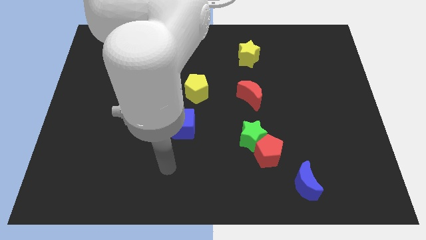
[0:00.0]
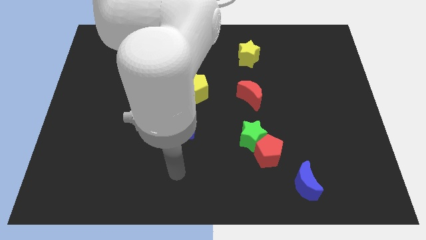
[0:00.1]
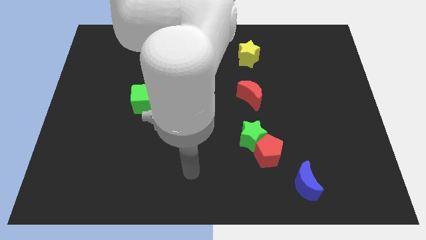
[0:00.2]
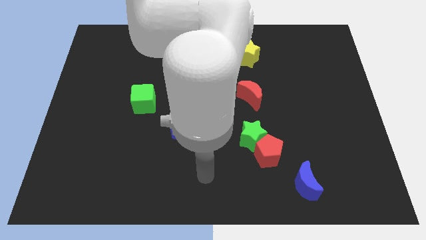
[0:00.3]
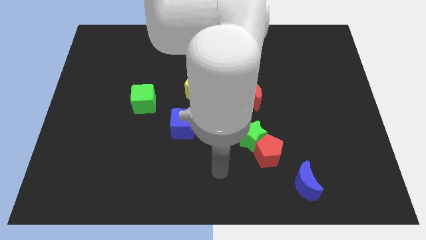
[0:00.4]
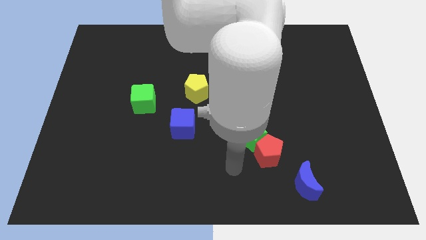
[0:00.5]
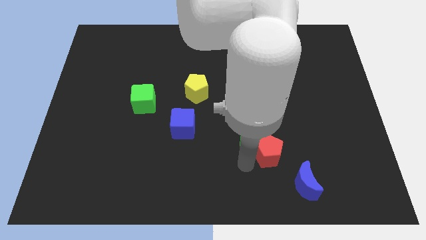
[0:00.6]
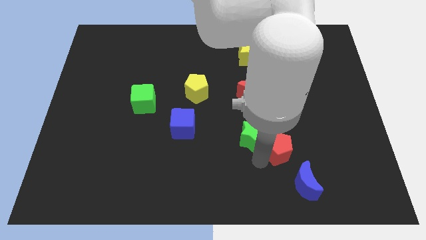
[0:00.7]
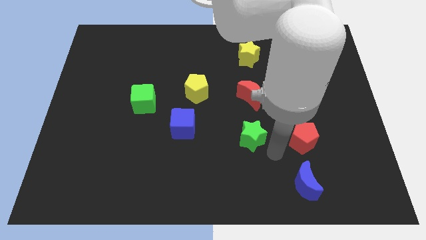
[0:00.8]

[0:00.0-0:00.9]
pull the green star apart from the red pentagon

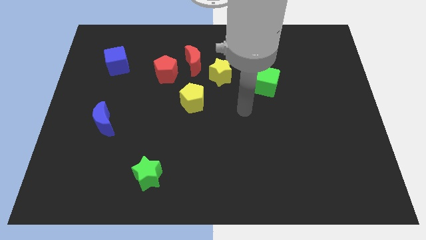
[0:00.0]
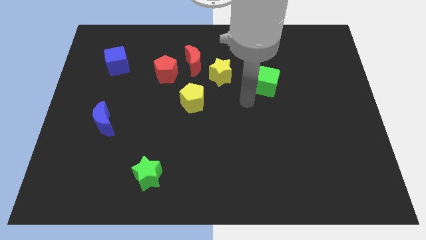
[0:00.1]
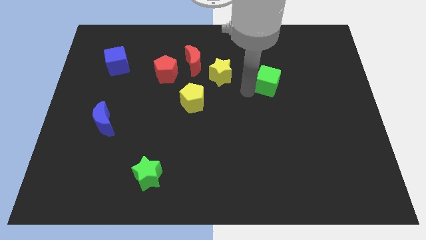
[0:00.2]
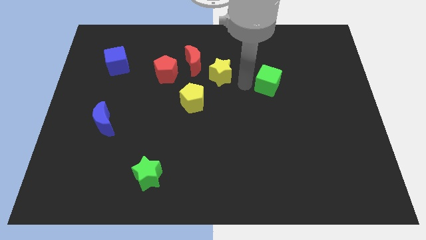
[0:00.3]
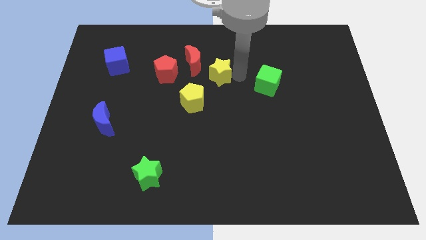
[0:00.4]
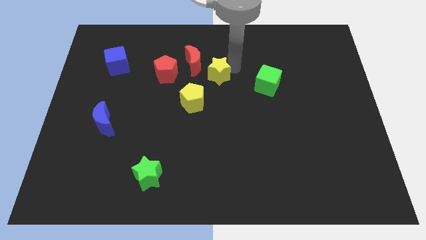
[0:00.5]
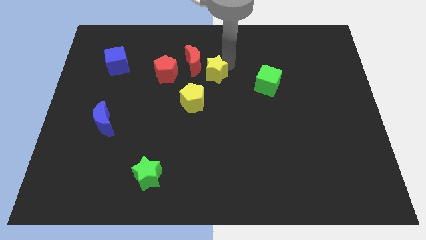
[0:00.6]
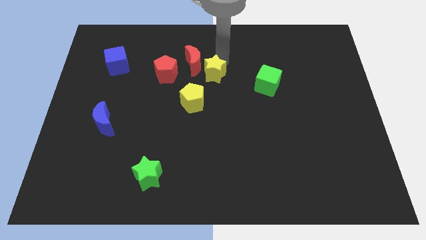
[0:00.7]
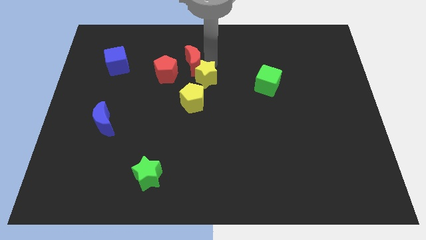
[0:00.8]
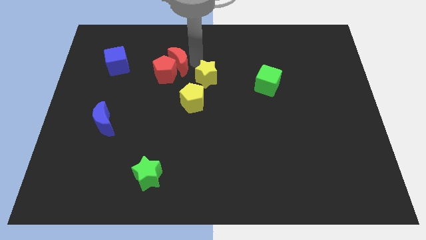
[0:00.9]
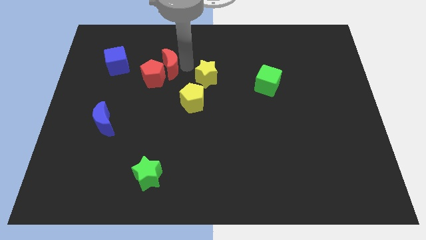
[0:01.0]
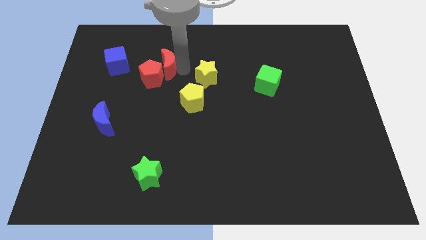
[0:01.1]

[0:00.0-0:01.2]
move the yellow star away from the red moon

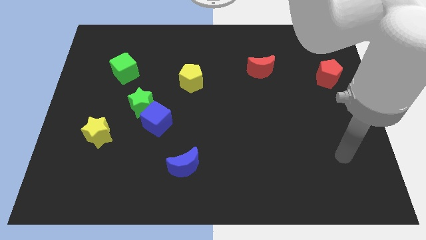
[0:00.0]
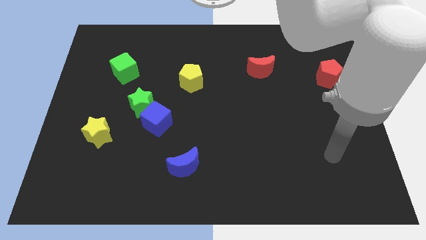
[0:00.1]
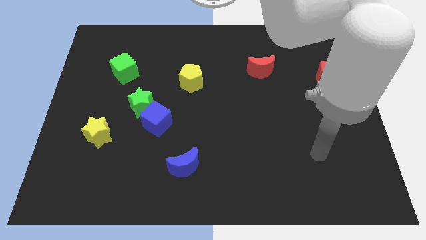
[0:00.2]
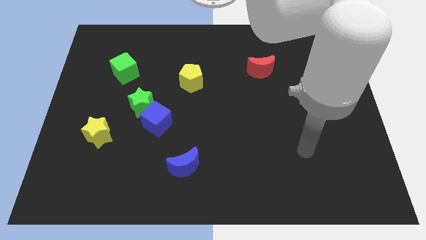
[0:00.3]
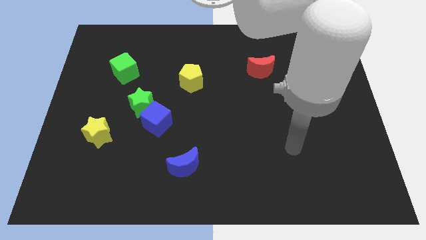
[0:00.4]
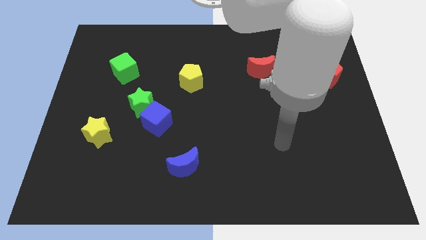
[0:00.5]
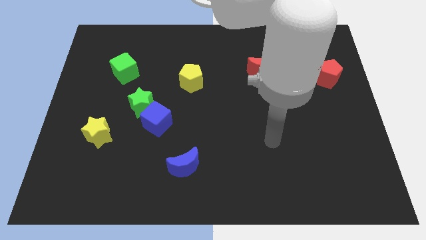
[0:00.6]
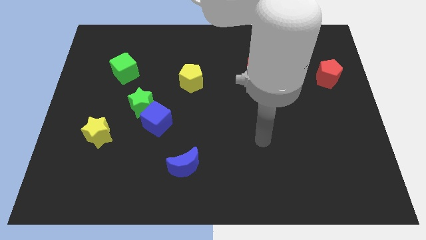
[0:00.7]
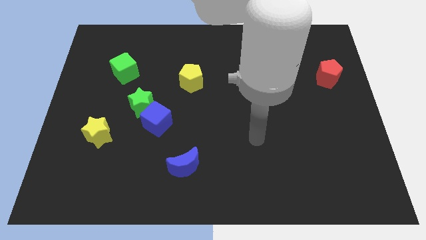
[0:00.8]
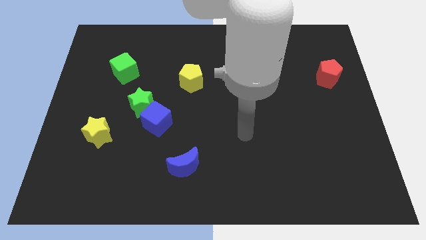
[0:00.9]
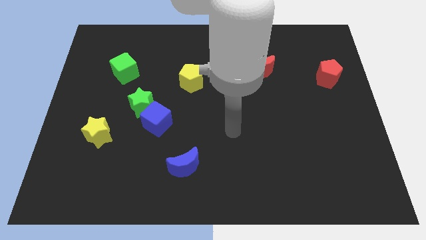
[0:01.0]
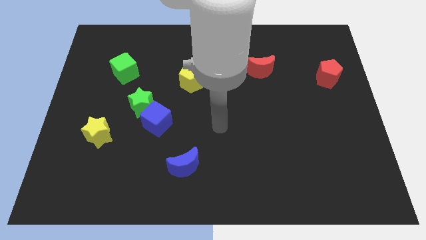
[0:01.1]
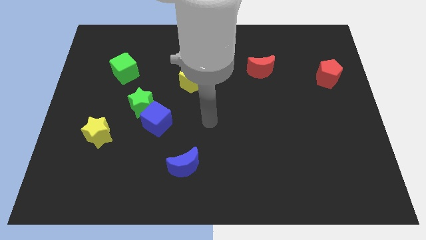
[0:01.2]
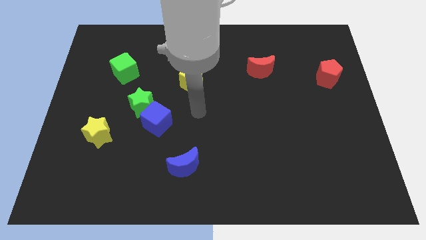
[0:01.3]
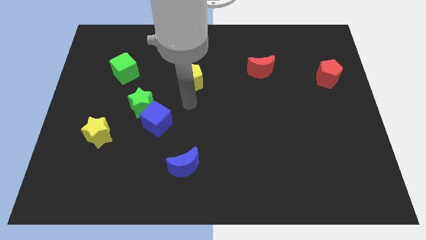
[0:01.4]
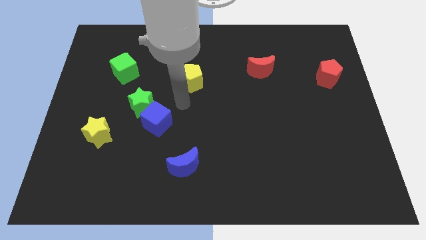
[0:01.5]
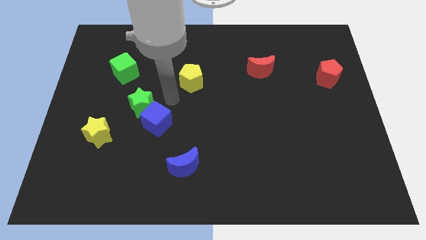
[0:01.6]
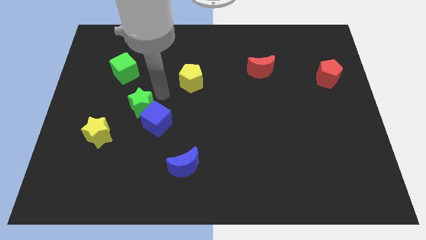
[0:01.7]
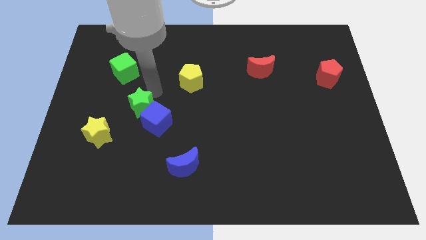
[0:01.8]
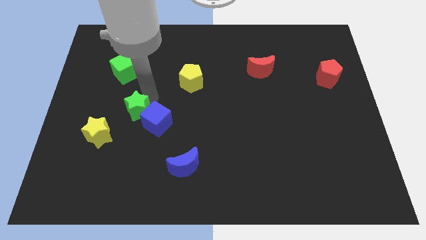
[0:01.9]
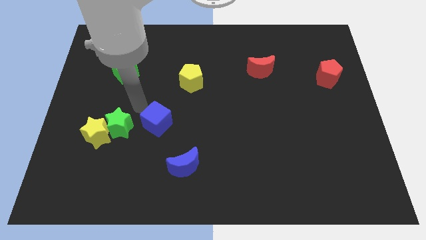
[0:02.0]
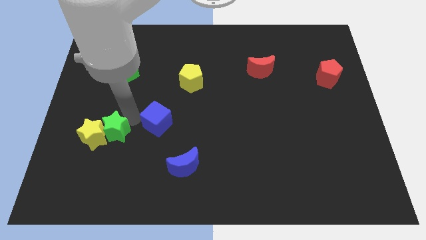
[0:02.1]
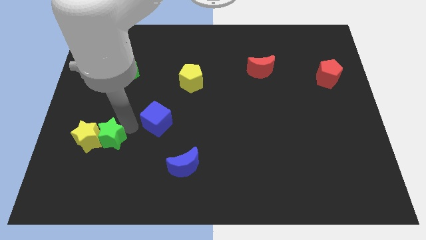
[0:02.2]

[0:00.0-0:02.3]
pull the blue cube apart from the green star

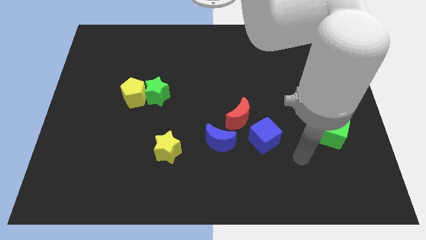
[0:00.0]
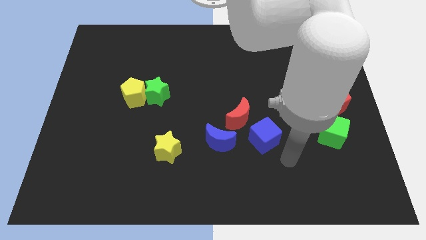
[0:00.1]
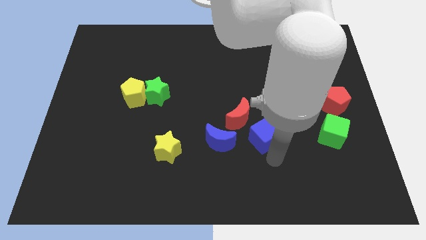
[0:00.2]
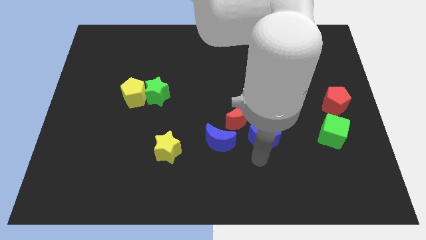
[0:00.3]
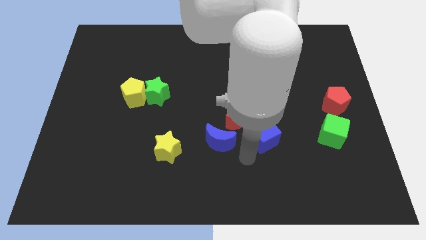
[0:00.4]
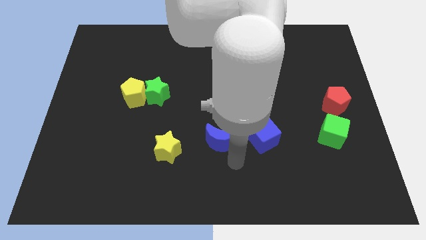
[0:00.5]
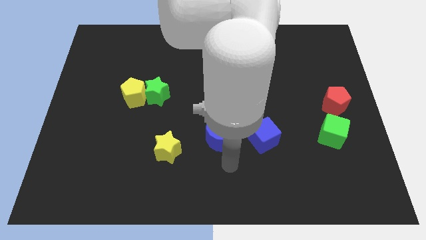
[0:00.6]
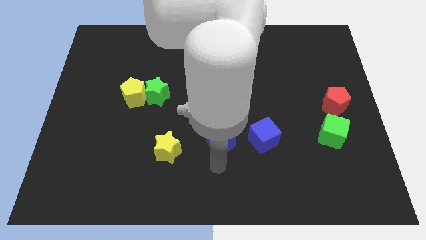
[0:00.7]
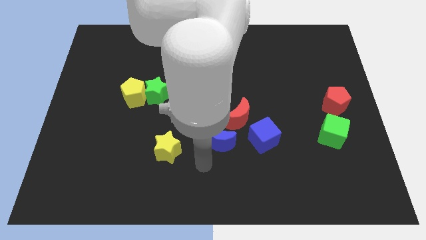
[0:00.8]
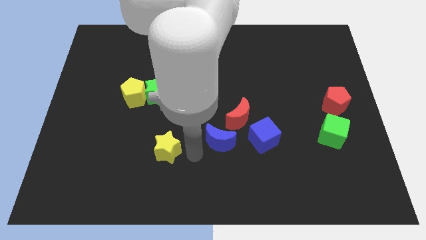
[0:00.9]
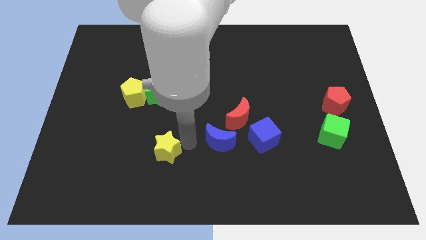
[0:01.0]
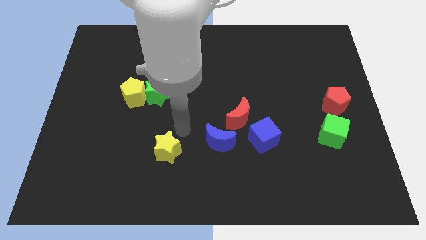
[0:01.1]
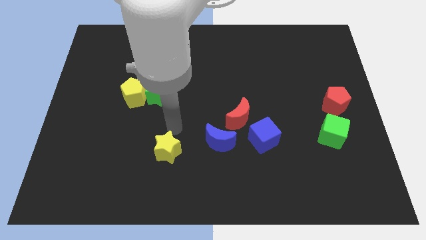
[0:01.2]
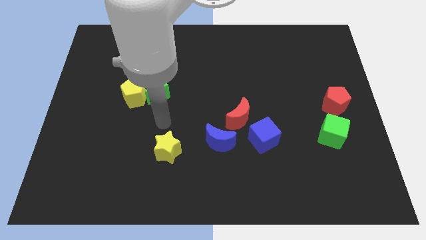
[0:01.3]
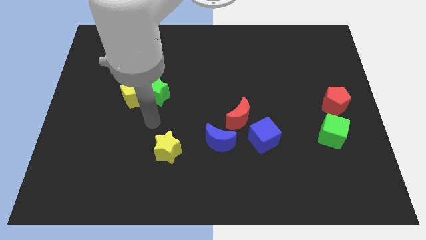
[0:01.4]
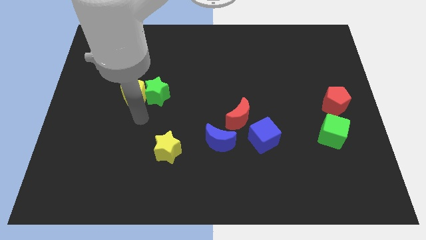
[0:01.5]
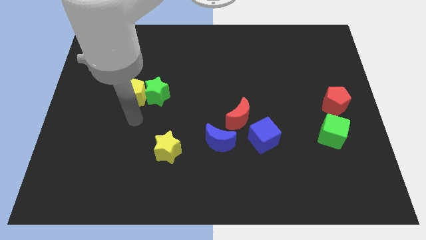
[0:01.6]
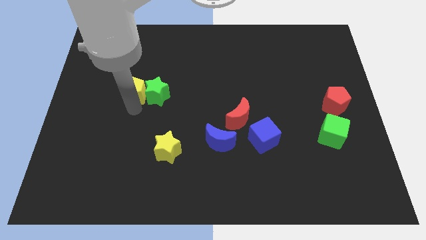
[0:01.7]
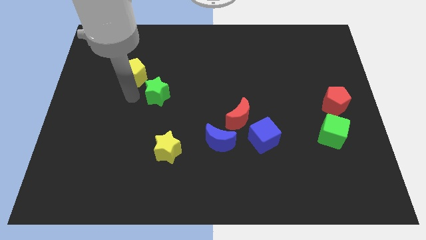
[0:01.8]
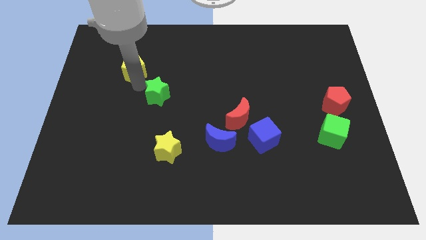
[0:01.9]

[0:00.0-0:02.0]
pull the green star apart from the yellow pentagon

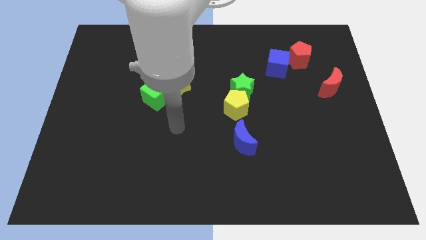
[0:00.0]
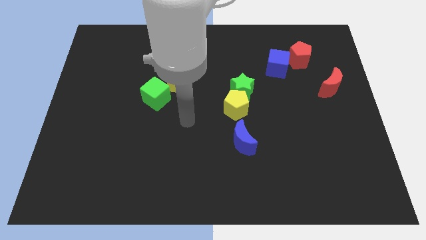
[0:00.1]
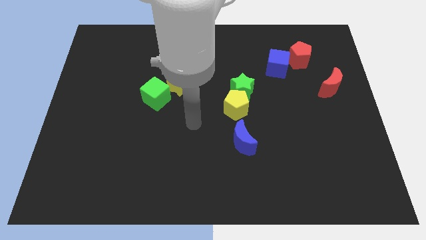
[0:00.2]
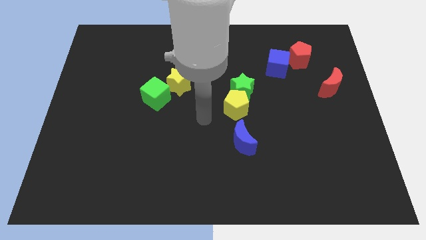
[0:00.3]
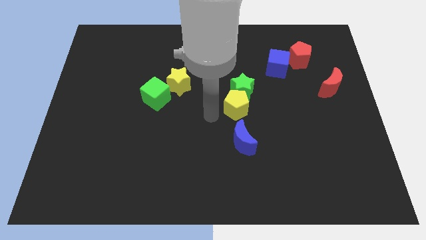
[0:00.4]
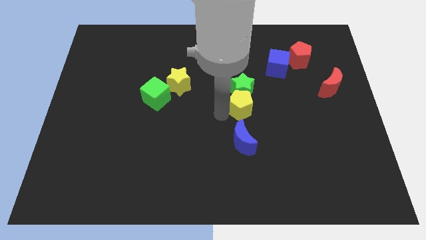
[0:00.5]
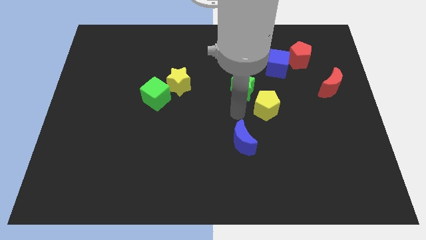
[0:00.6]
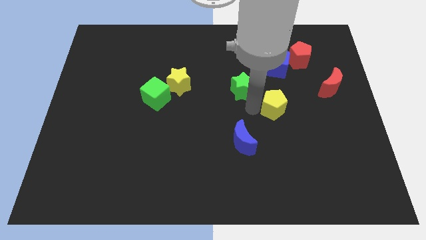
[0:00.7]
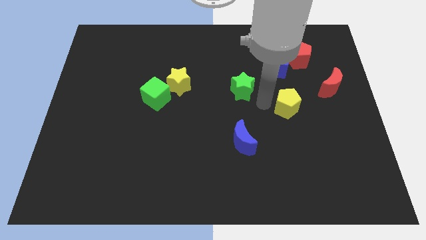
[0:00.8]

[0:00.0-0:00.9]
separate the green star from the yellow pentagon

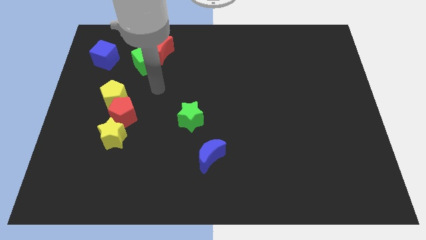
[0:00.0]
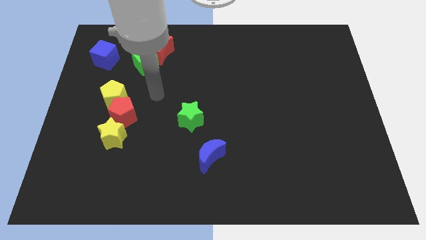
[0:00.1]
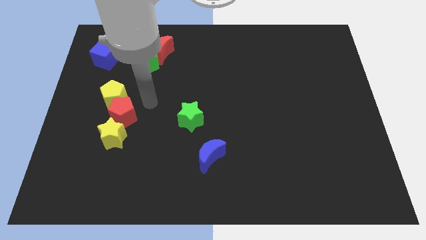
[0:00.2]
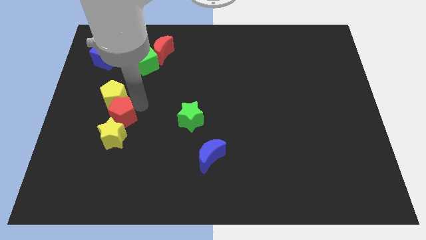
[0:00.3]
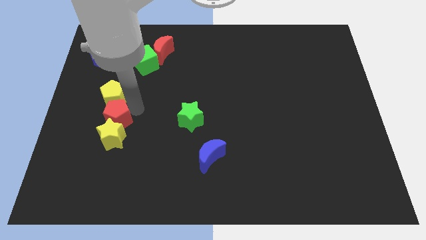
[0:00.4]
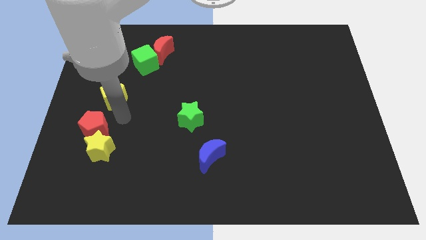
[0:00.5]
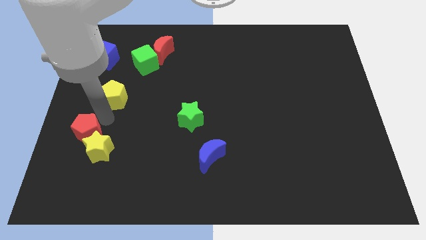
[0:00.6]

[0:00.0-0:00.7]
separate the yellow pentagon from the red pentagon

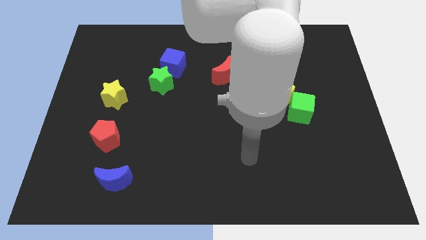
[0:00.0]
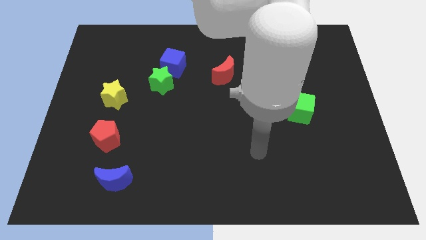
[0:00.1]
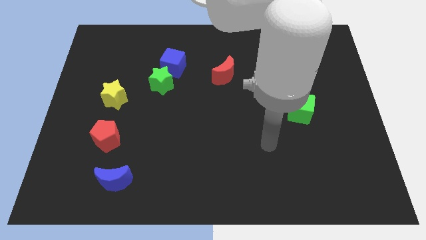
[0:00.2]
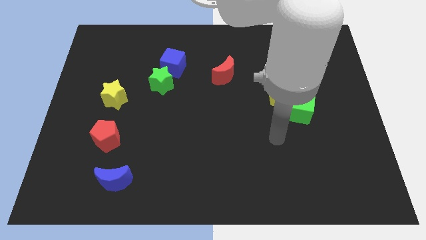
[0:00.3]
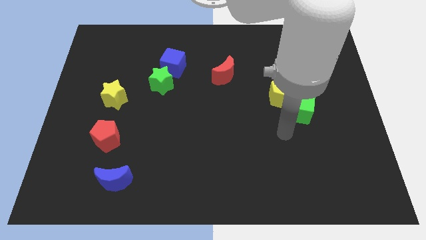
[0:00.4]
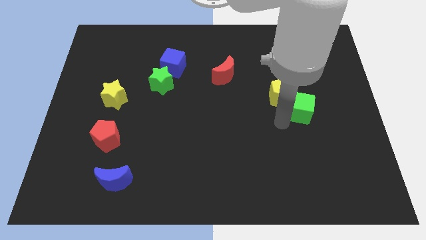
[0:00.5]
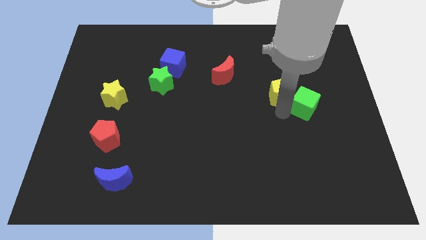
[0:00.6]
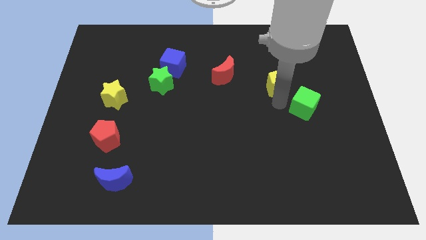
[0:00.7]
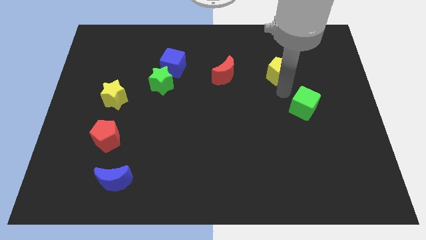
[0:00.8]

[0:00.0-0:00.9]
separate the green cube from the yellow pentagon

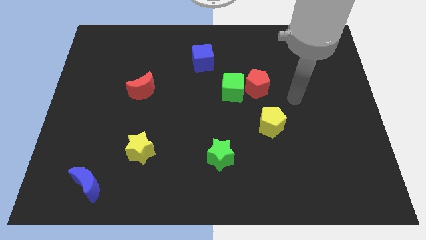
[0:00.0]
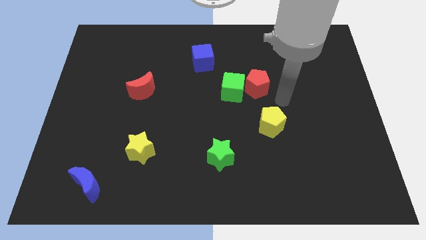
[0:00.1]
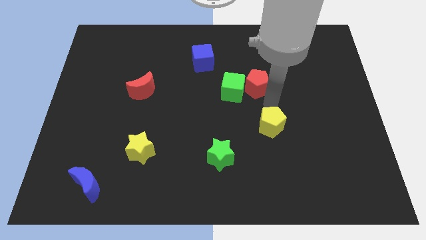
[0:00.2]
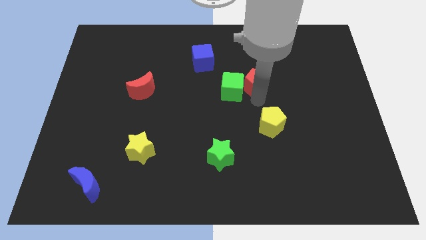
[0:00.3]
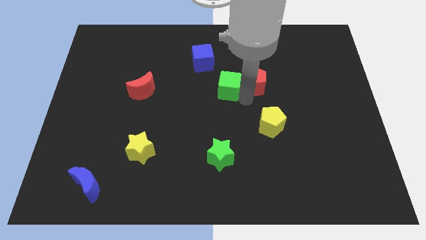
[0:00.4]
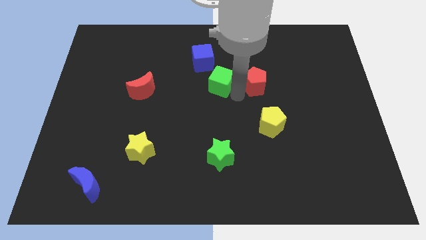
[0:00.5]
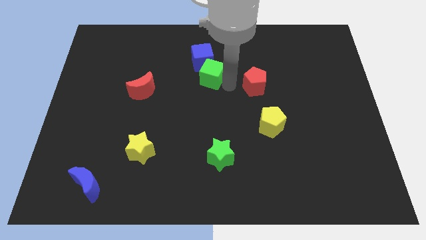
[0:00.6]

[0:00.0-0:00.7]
move the red pentagon away from the green cube
